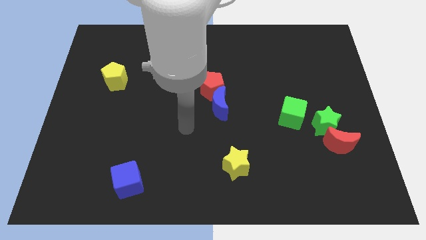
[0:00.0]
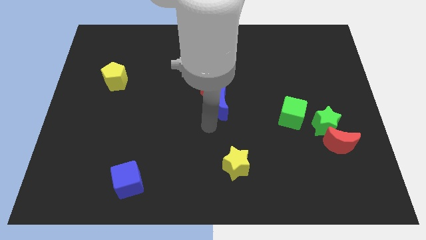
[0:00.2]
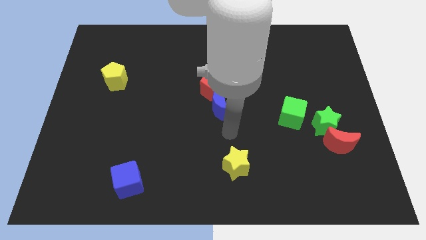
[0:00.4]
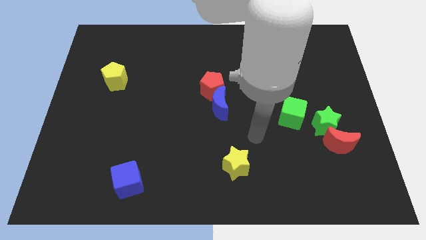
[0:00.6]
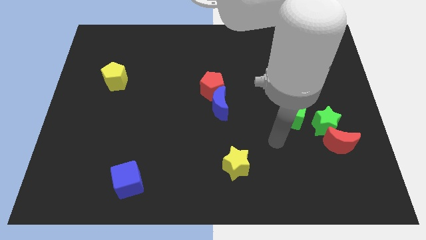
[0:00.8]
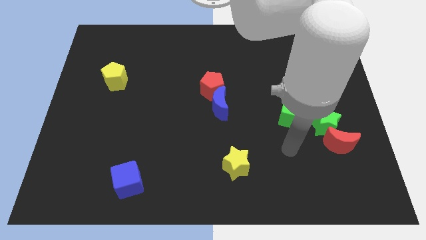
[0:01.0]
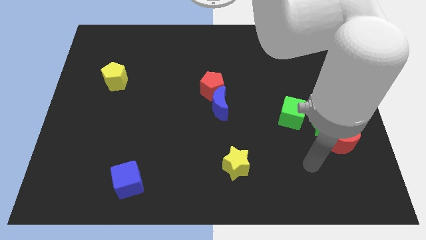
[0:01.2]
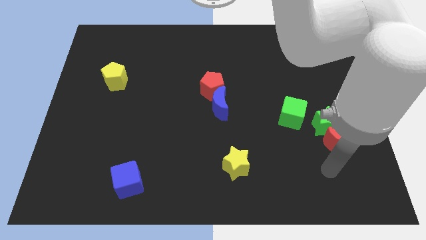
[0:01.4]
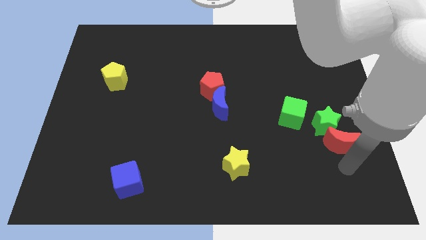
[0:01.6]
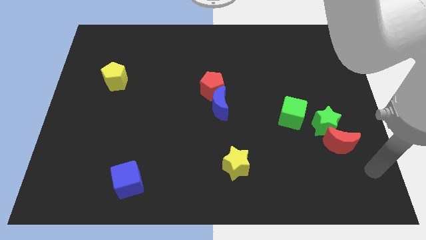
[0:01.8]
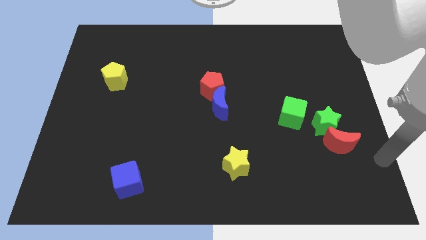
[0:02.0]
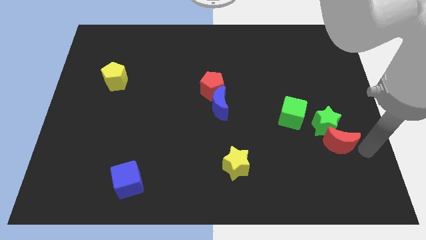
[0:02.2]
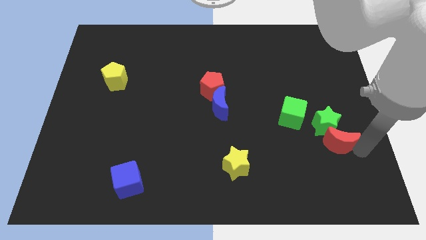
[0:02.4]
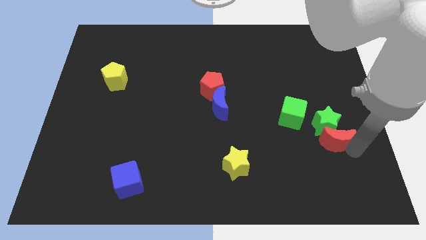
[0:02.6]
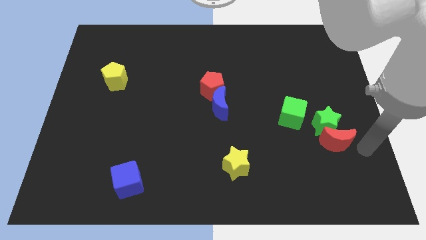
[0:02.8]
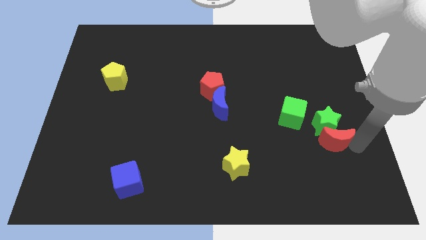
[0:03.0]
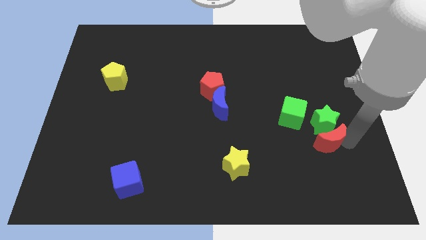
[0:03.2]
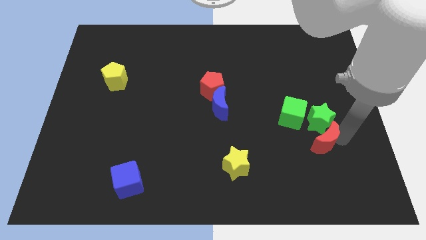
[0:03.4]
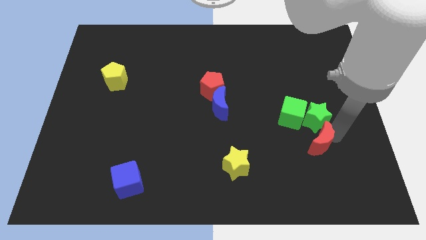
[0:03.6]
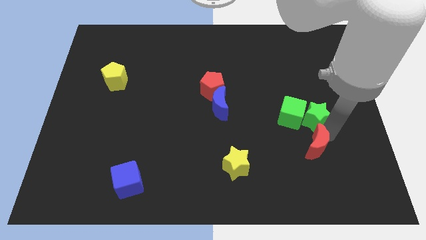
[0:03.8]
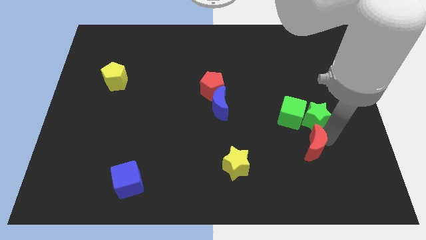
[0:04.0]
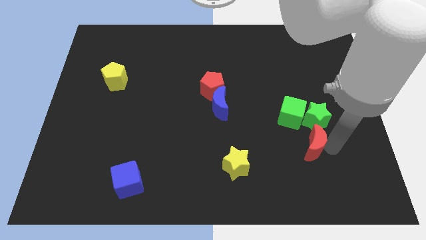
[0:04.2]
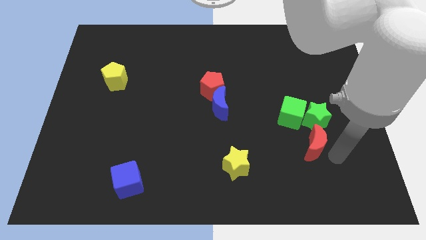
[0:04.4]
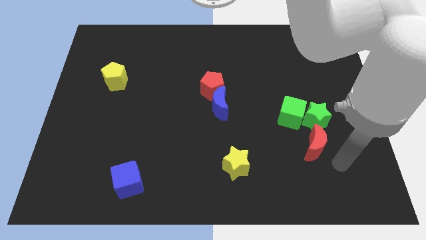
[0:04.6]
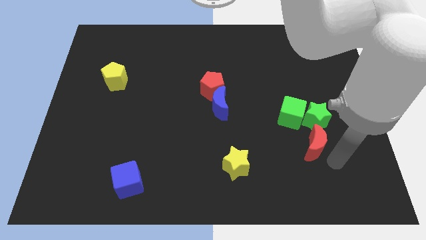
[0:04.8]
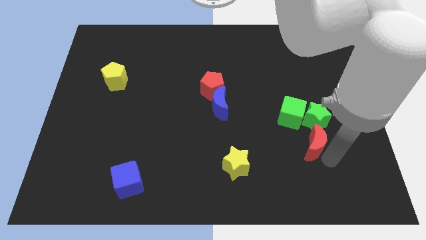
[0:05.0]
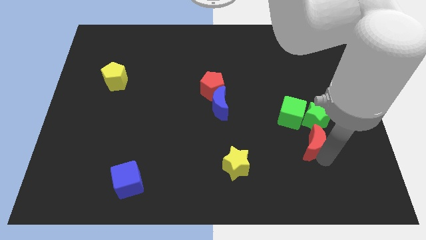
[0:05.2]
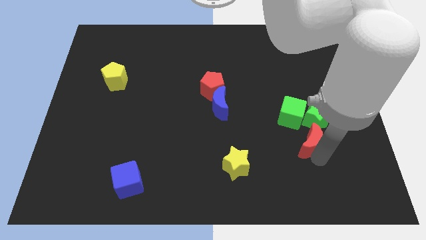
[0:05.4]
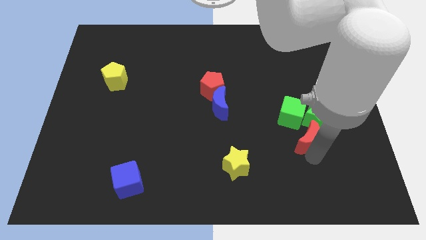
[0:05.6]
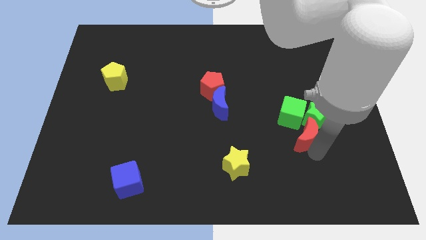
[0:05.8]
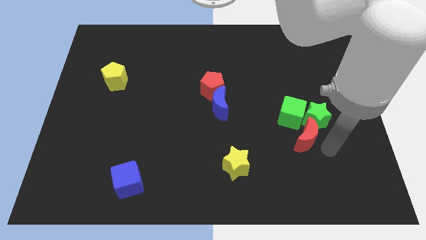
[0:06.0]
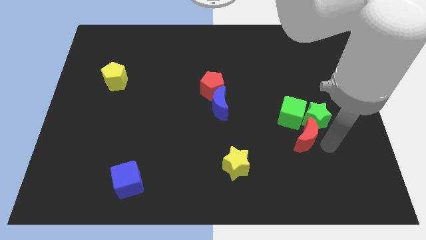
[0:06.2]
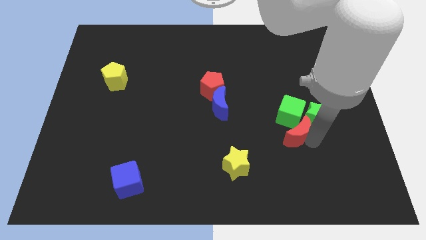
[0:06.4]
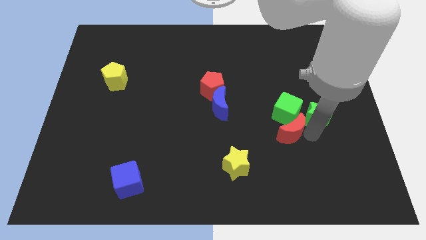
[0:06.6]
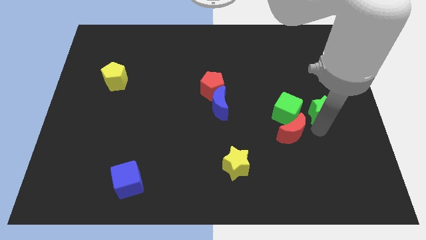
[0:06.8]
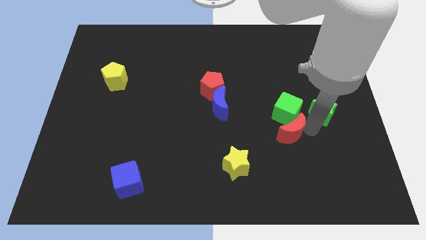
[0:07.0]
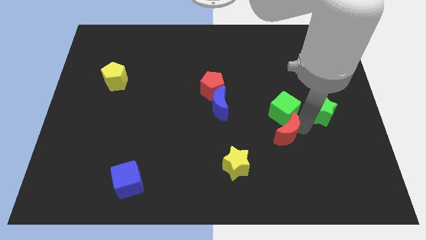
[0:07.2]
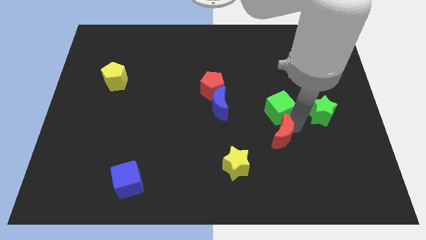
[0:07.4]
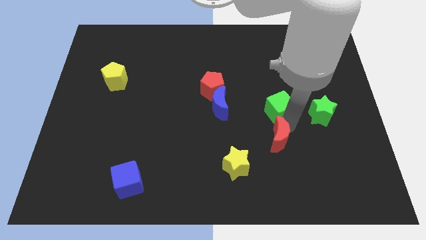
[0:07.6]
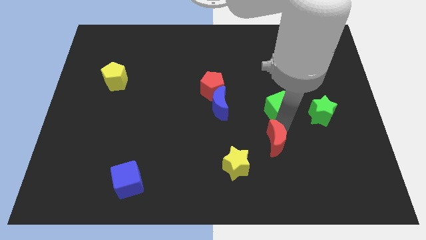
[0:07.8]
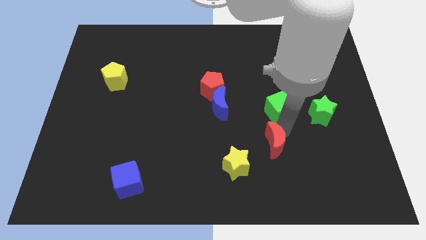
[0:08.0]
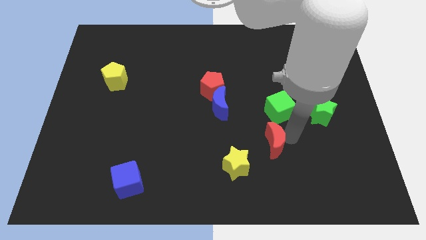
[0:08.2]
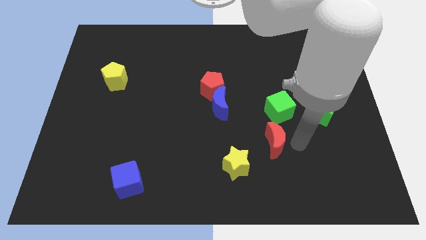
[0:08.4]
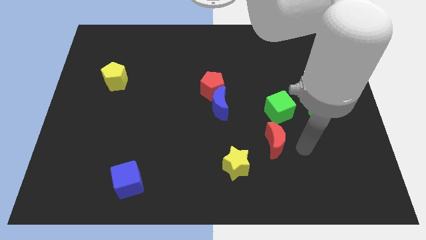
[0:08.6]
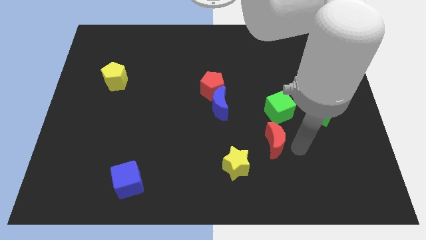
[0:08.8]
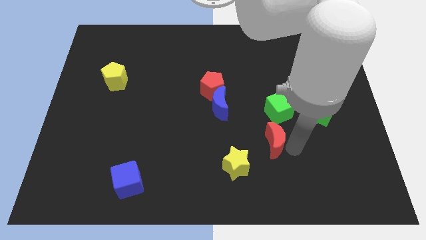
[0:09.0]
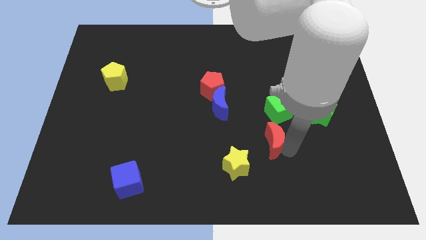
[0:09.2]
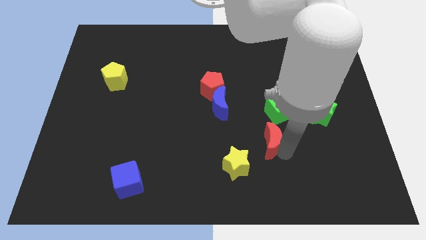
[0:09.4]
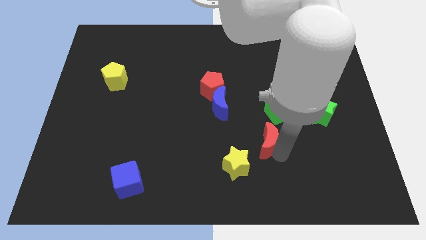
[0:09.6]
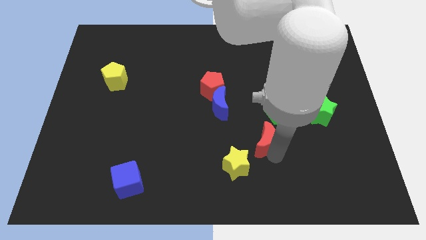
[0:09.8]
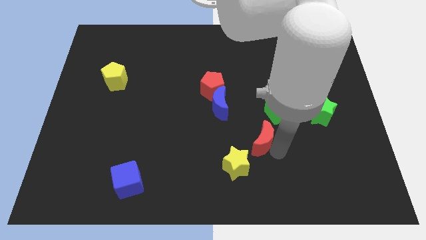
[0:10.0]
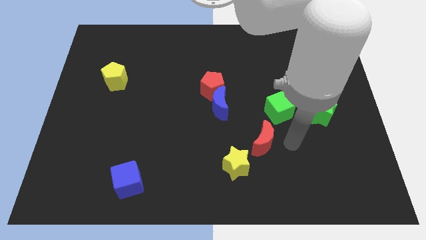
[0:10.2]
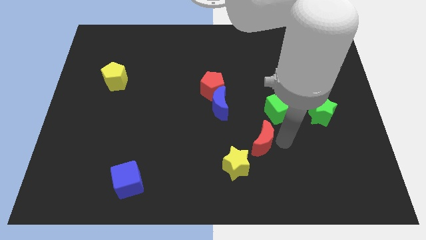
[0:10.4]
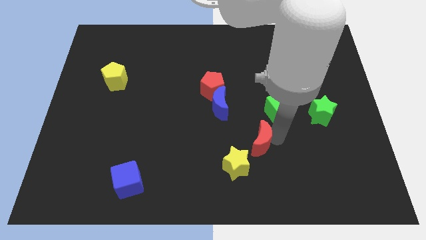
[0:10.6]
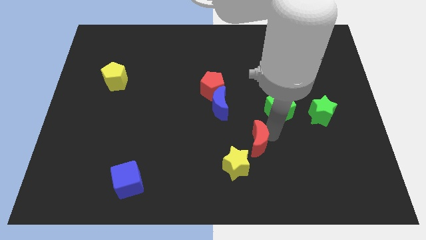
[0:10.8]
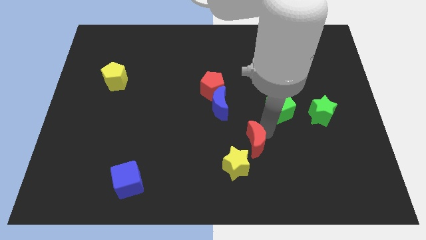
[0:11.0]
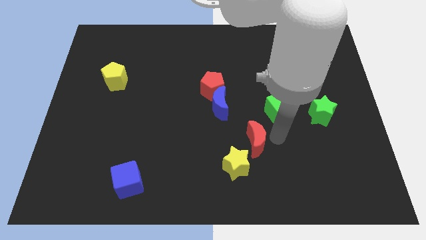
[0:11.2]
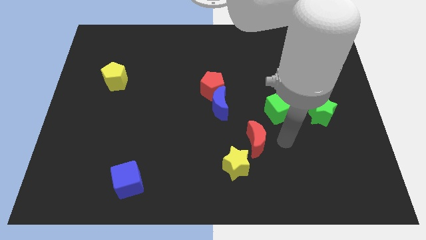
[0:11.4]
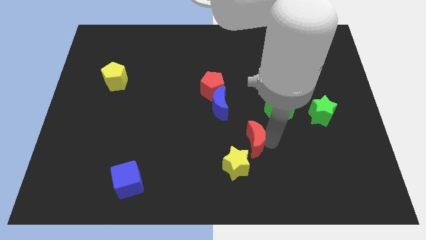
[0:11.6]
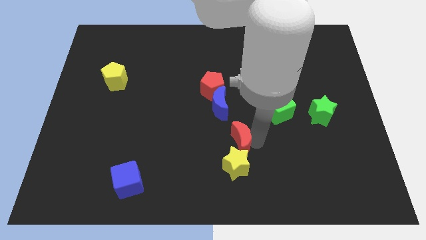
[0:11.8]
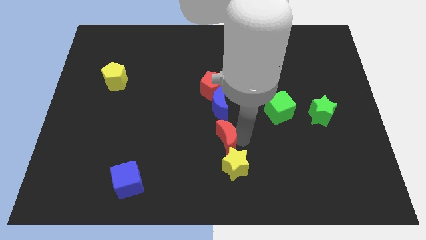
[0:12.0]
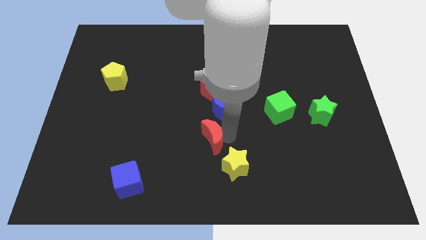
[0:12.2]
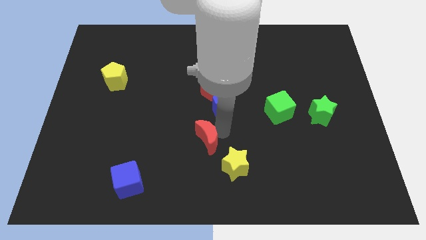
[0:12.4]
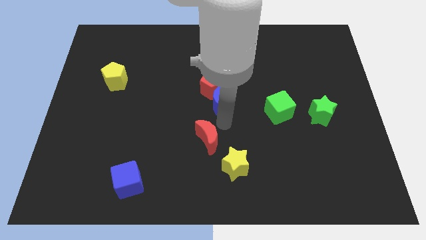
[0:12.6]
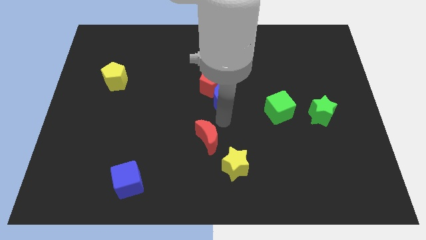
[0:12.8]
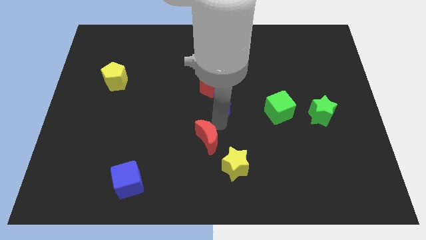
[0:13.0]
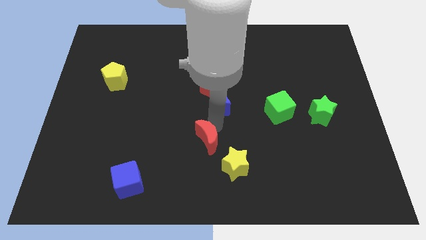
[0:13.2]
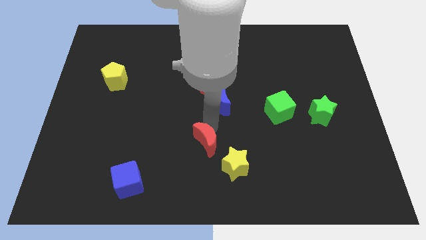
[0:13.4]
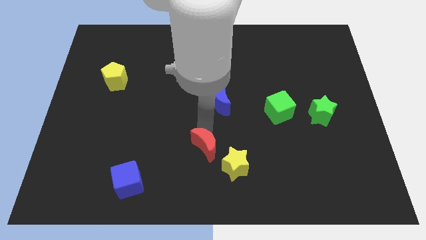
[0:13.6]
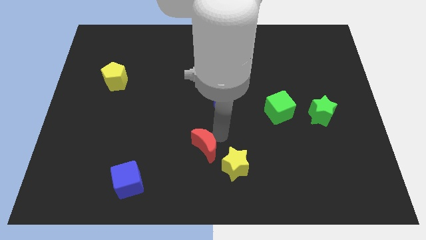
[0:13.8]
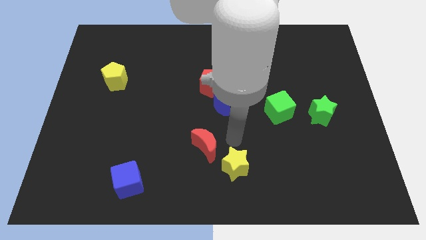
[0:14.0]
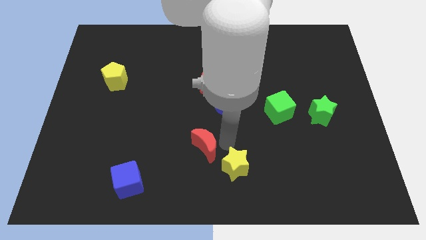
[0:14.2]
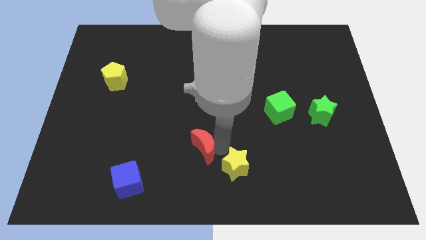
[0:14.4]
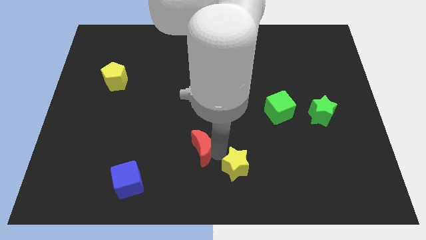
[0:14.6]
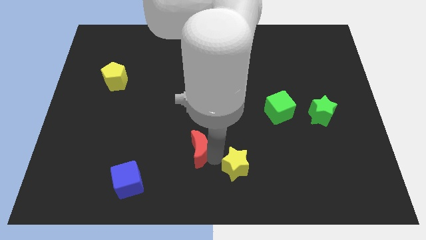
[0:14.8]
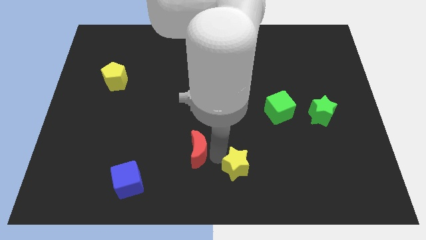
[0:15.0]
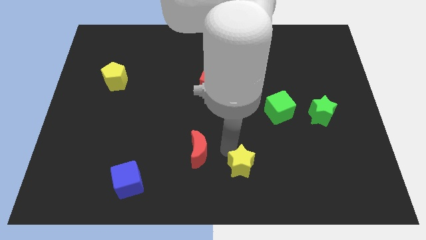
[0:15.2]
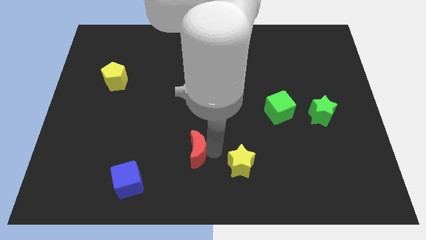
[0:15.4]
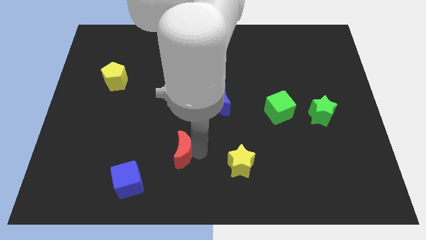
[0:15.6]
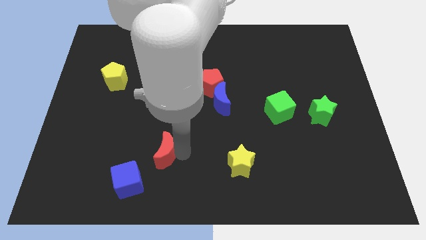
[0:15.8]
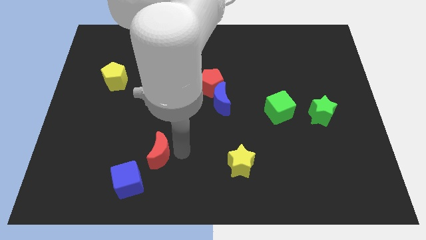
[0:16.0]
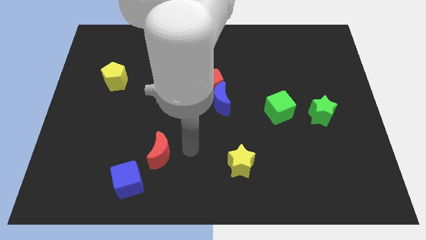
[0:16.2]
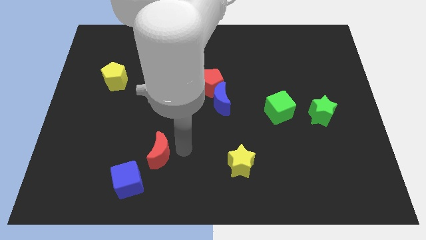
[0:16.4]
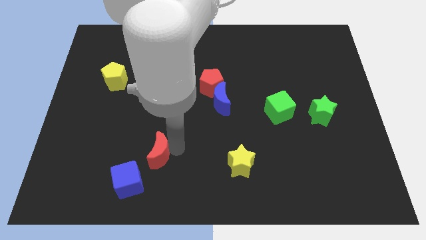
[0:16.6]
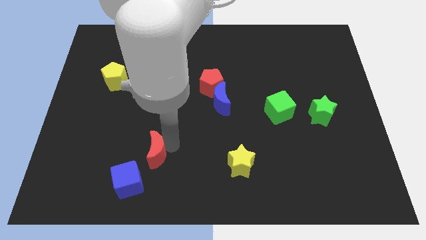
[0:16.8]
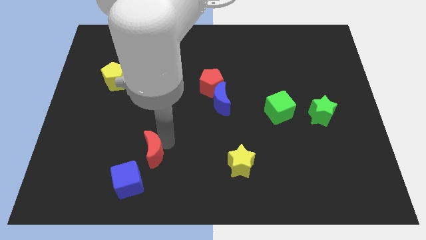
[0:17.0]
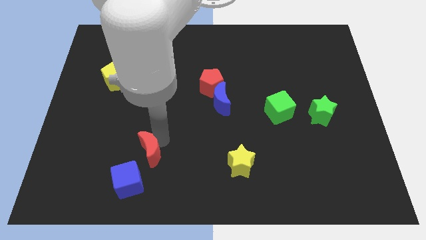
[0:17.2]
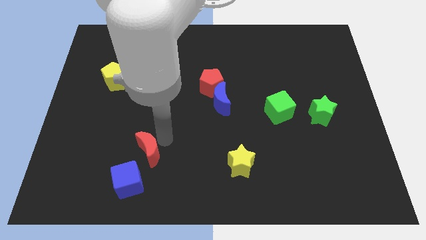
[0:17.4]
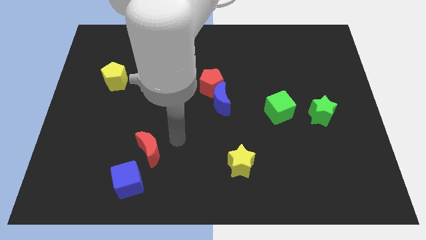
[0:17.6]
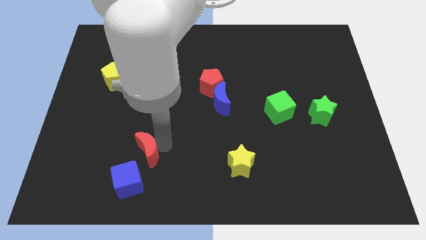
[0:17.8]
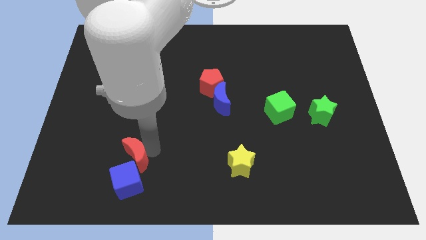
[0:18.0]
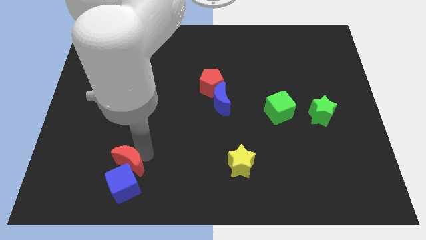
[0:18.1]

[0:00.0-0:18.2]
put the red moon diagonally up and to the left of the blue cube
